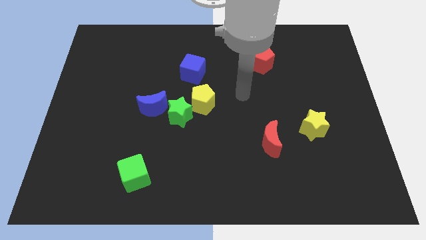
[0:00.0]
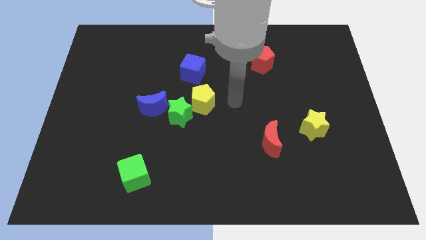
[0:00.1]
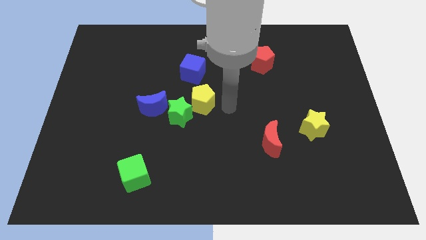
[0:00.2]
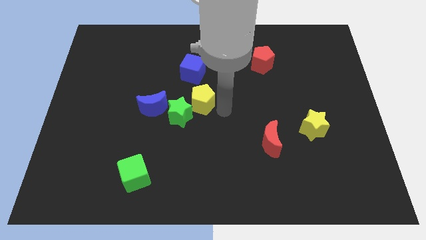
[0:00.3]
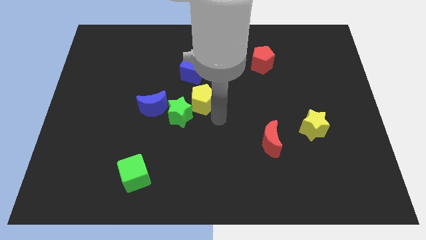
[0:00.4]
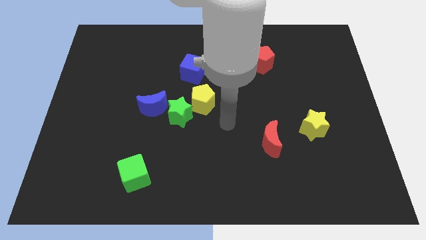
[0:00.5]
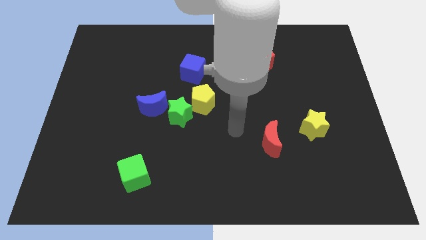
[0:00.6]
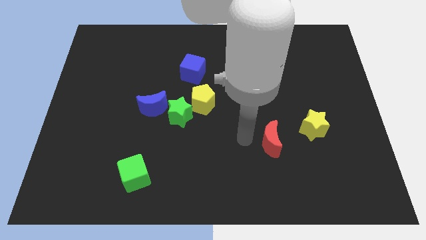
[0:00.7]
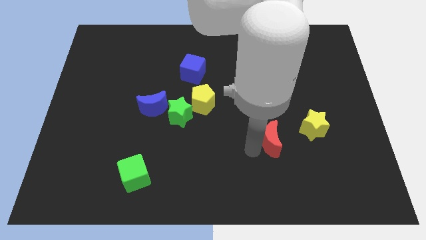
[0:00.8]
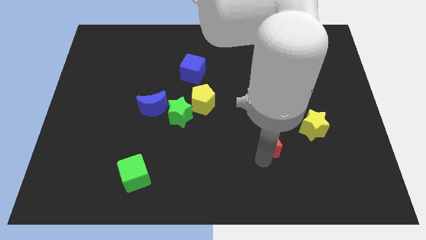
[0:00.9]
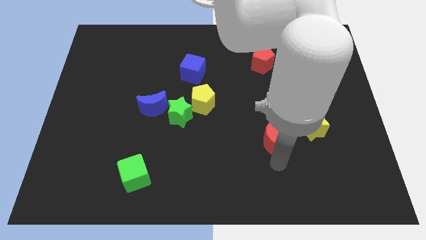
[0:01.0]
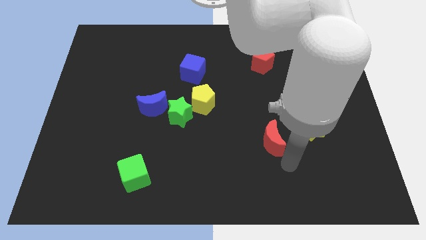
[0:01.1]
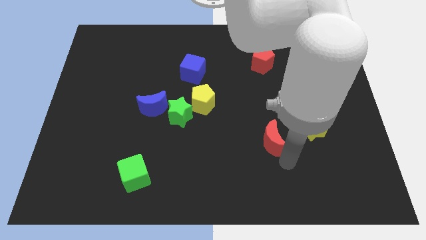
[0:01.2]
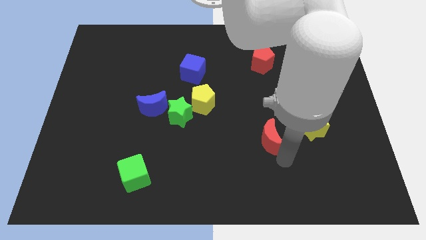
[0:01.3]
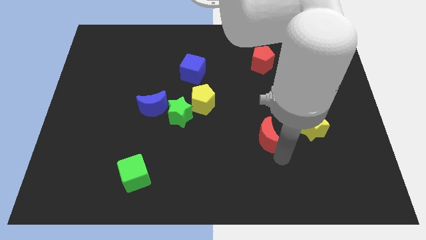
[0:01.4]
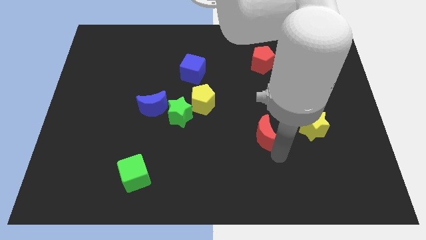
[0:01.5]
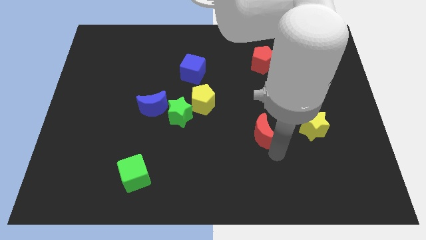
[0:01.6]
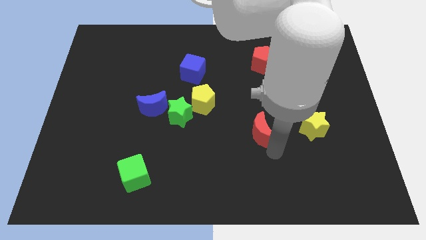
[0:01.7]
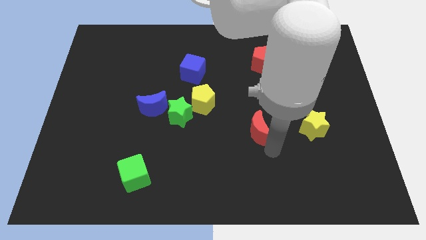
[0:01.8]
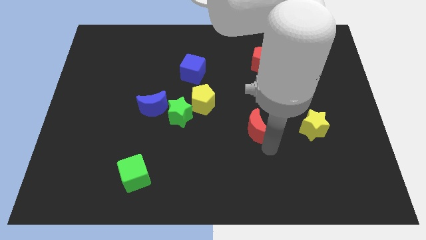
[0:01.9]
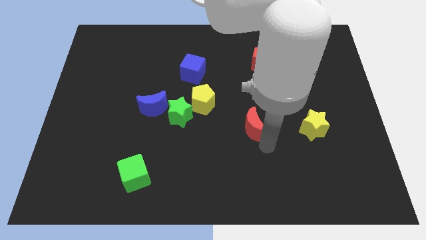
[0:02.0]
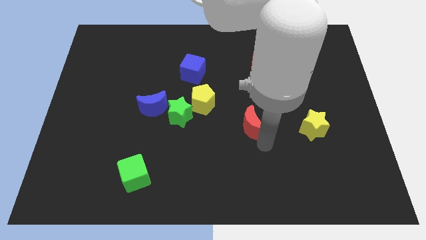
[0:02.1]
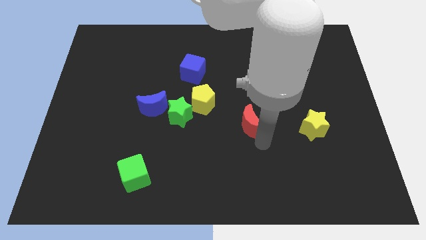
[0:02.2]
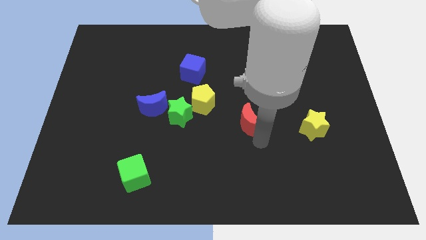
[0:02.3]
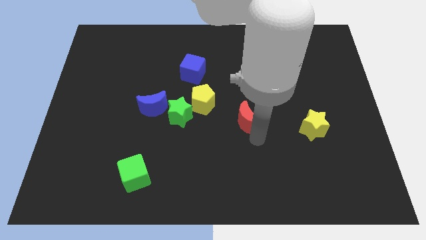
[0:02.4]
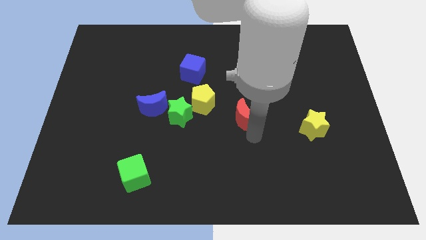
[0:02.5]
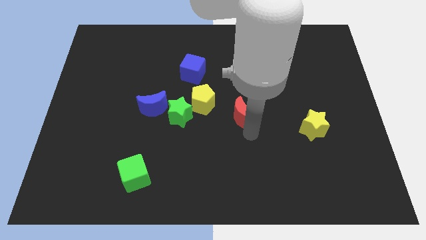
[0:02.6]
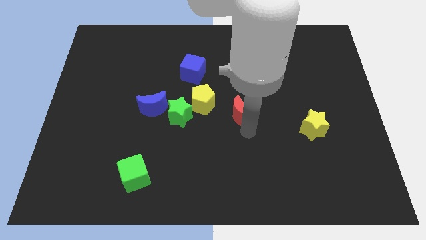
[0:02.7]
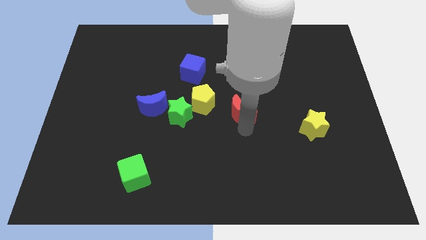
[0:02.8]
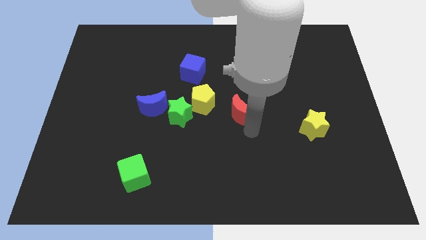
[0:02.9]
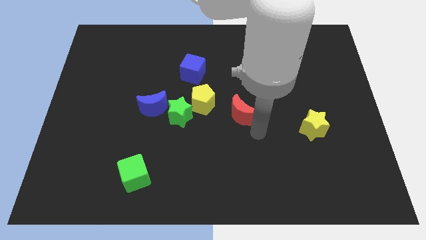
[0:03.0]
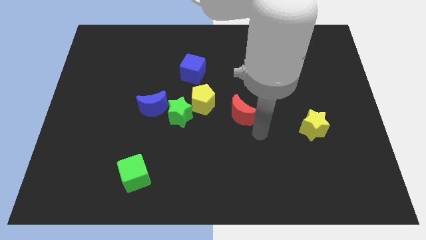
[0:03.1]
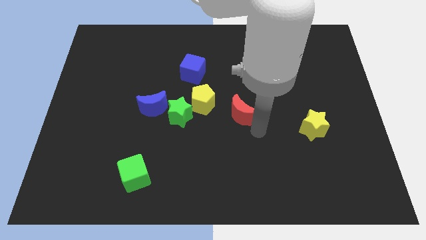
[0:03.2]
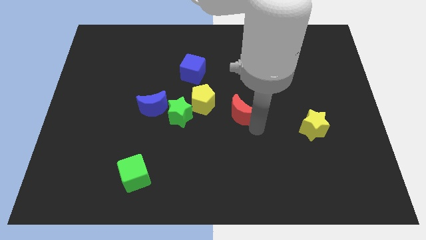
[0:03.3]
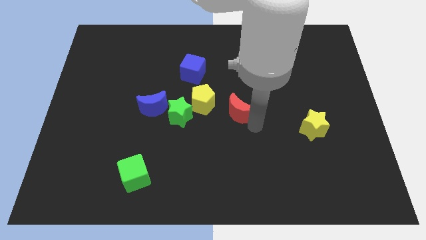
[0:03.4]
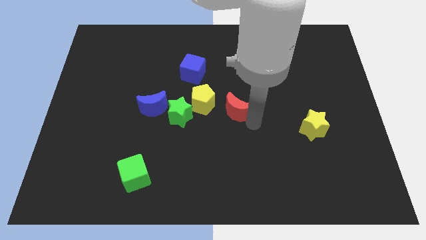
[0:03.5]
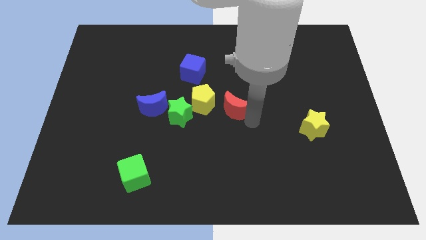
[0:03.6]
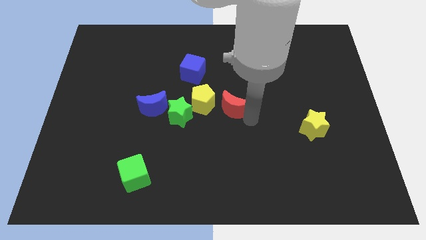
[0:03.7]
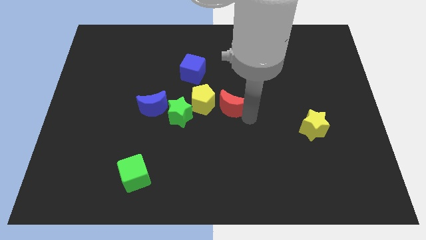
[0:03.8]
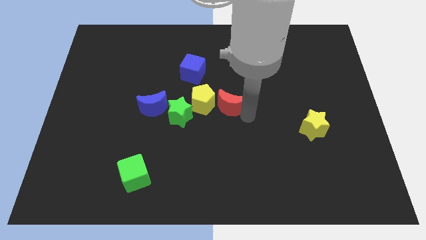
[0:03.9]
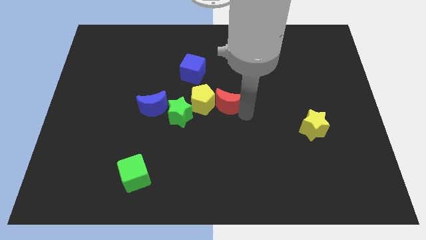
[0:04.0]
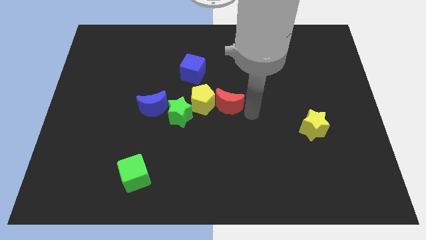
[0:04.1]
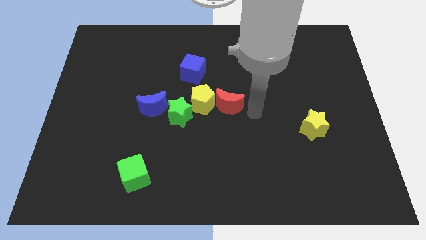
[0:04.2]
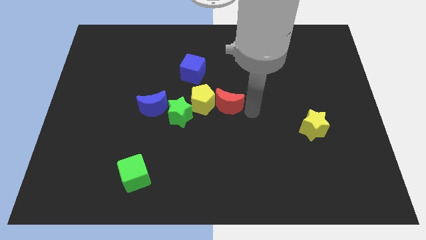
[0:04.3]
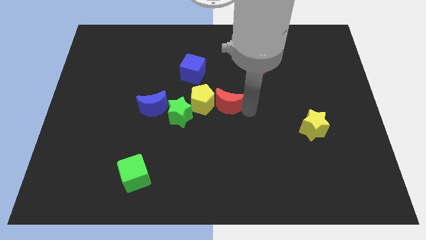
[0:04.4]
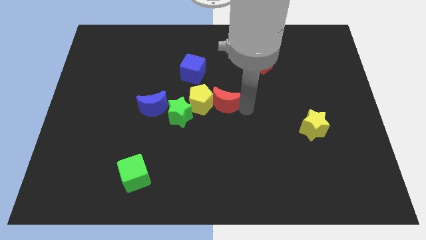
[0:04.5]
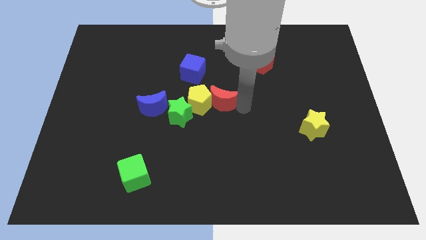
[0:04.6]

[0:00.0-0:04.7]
push the red moon to the top right of the green star

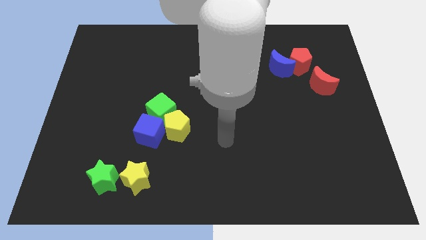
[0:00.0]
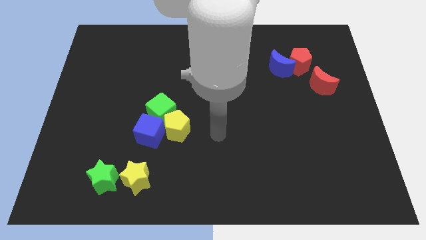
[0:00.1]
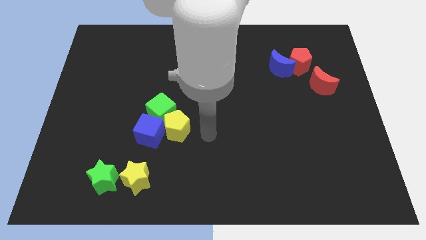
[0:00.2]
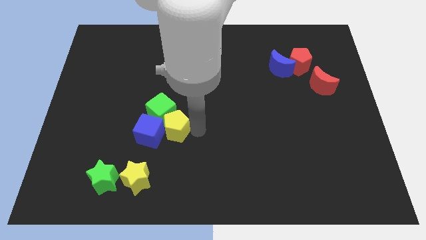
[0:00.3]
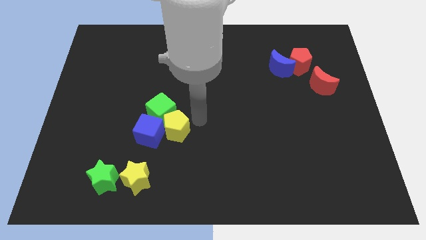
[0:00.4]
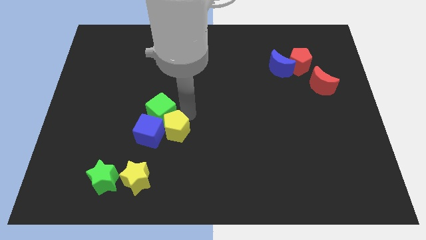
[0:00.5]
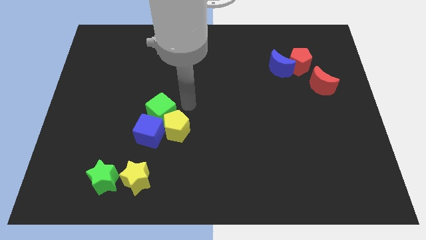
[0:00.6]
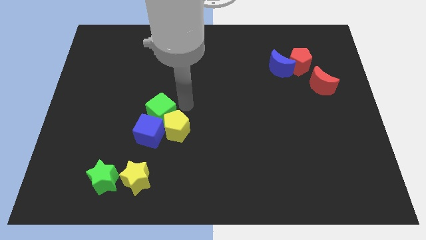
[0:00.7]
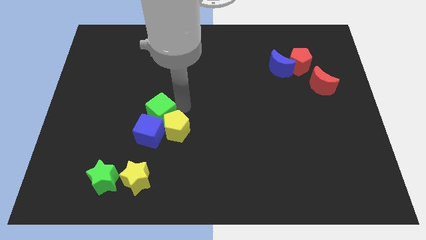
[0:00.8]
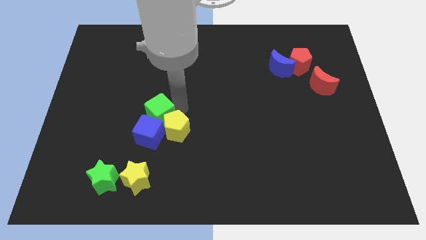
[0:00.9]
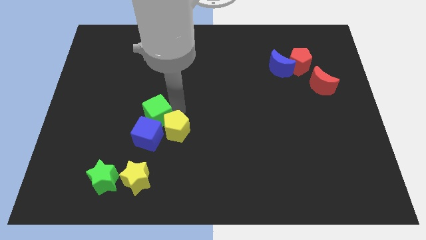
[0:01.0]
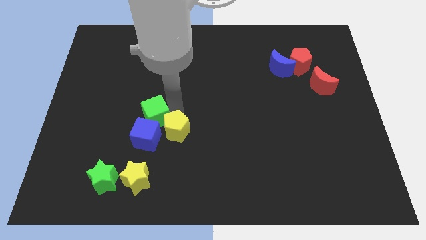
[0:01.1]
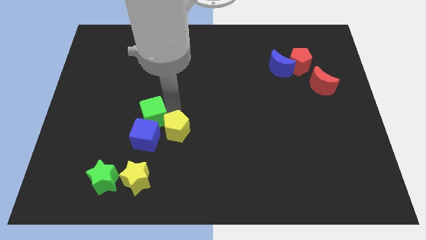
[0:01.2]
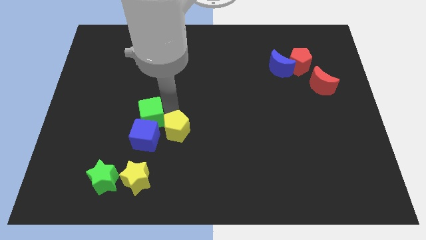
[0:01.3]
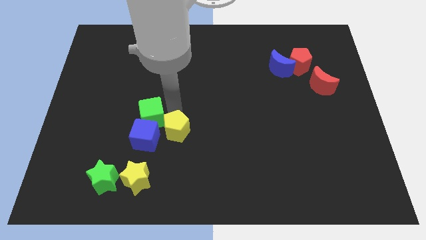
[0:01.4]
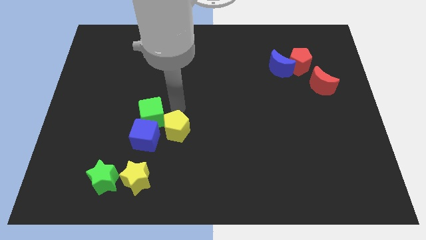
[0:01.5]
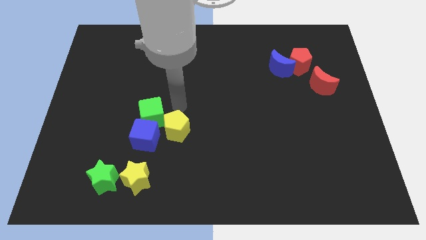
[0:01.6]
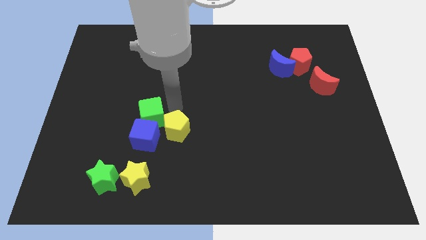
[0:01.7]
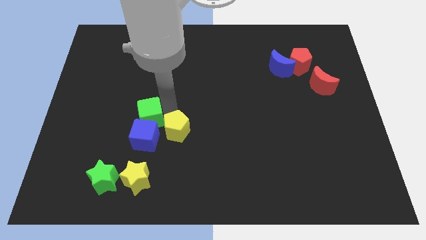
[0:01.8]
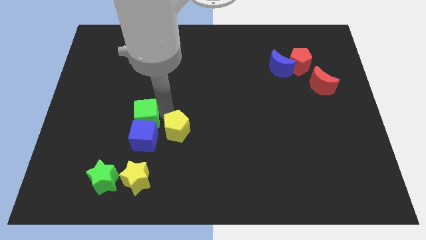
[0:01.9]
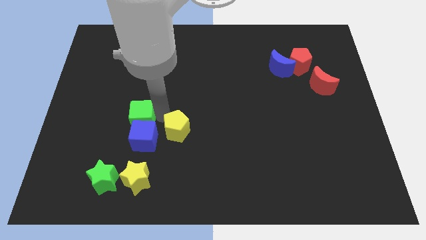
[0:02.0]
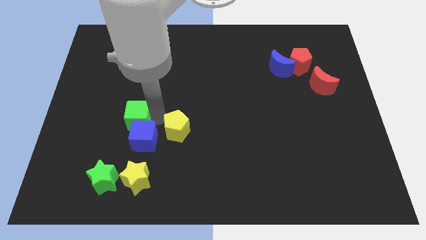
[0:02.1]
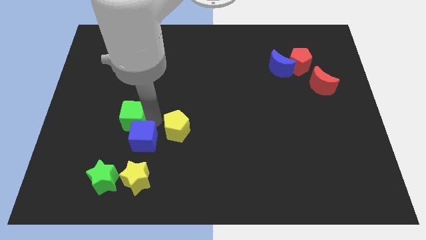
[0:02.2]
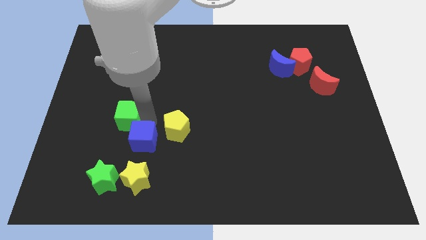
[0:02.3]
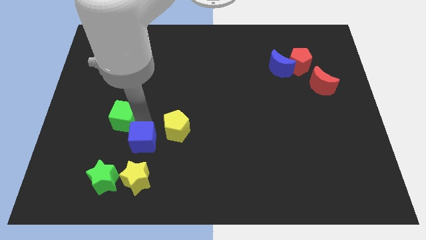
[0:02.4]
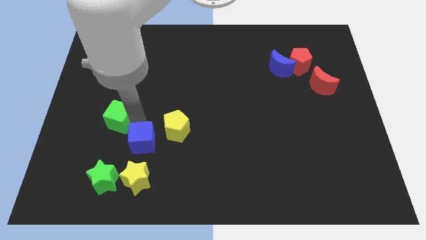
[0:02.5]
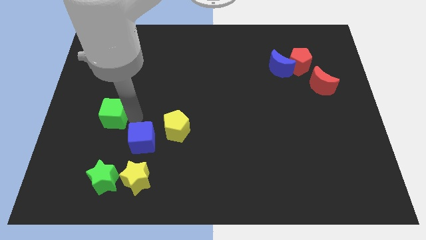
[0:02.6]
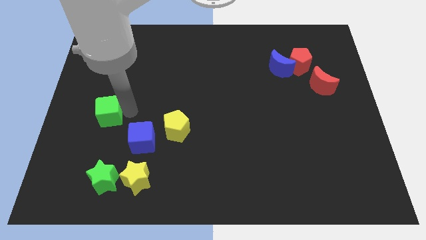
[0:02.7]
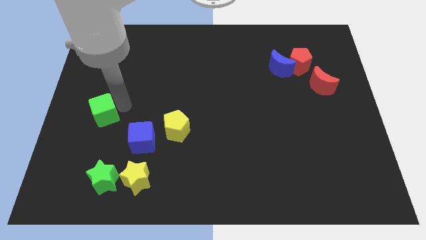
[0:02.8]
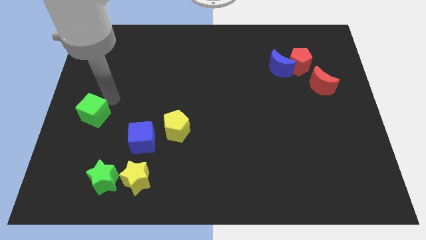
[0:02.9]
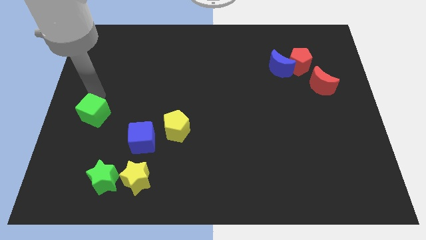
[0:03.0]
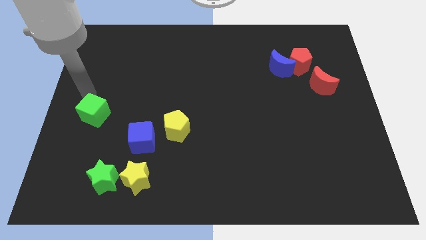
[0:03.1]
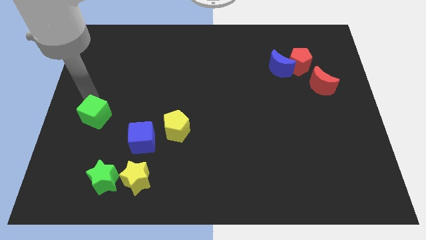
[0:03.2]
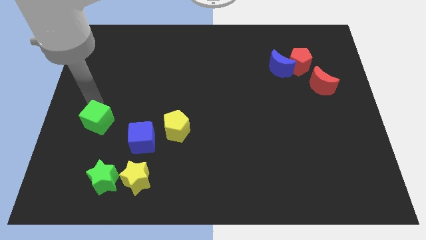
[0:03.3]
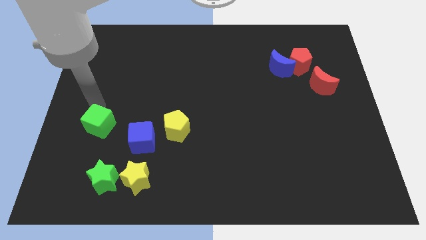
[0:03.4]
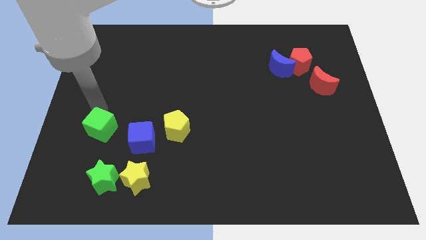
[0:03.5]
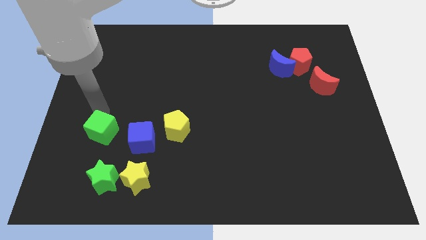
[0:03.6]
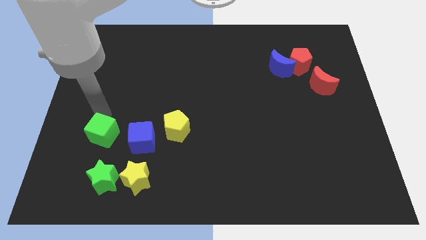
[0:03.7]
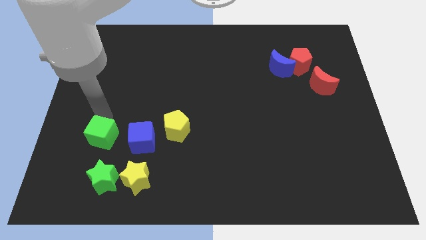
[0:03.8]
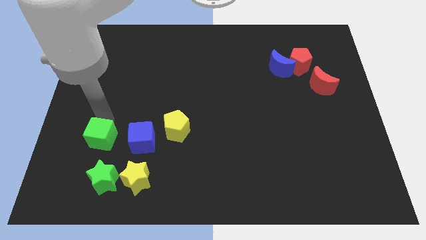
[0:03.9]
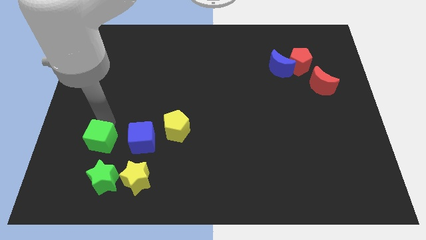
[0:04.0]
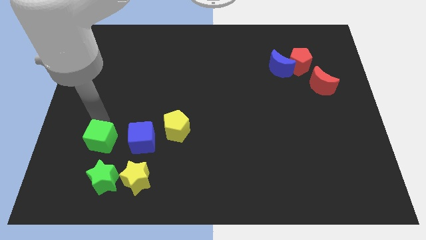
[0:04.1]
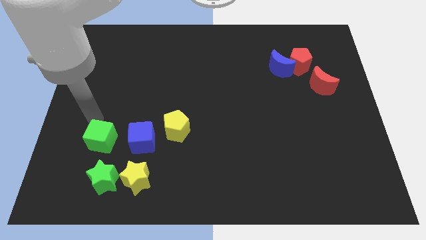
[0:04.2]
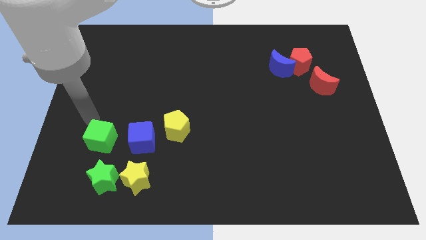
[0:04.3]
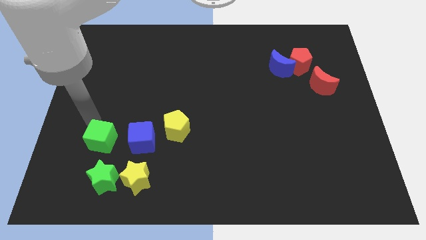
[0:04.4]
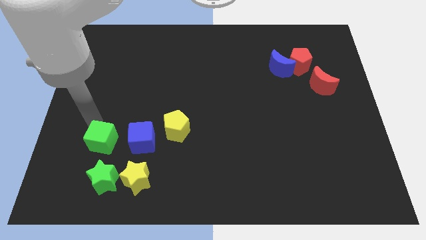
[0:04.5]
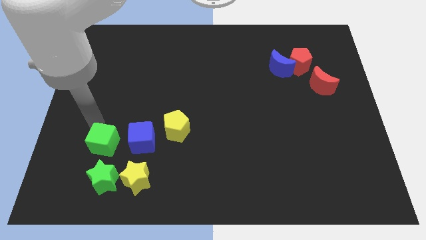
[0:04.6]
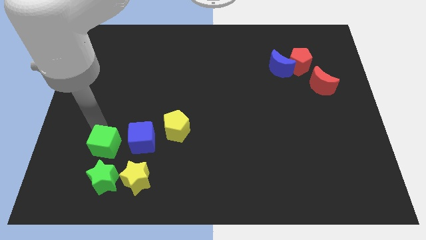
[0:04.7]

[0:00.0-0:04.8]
slide the green cube to the bottom left side of the blue cube
